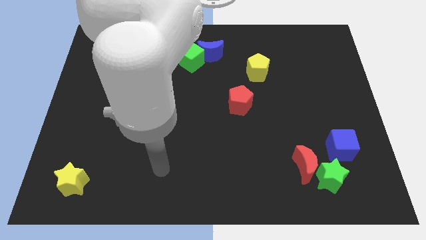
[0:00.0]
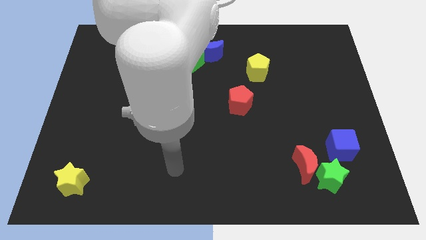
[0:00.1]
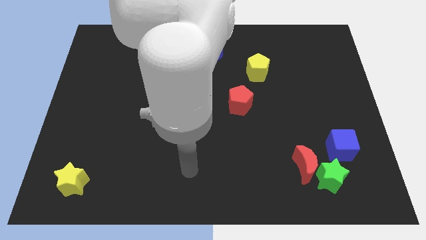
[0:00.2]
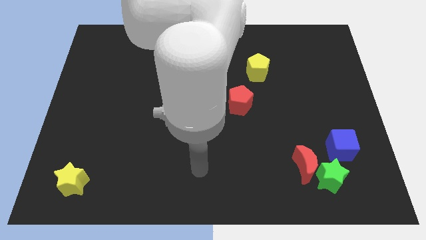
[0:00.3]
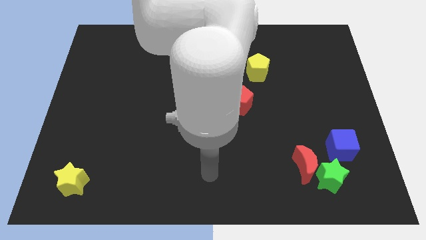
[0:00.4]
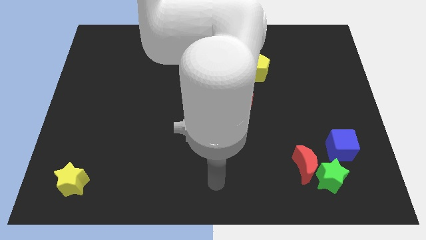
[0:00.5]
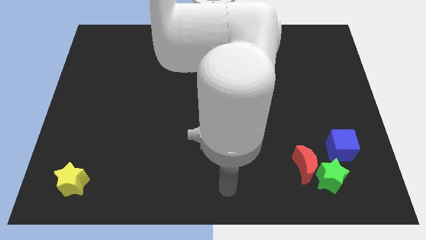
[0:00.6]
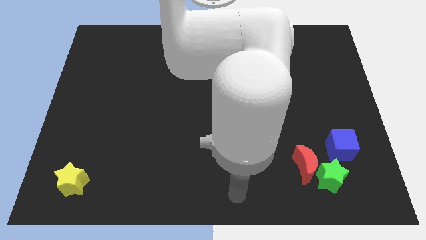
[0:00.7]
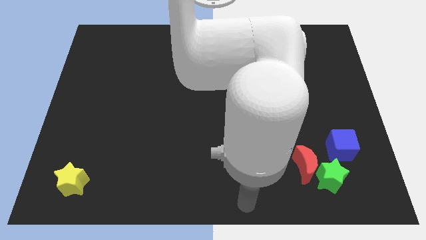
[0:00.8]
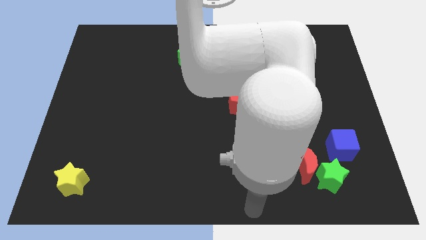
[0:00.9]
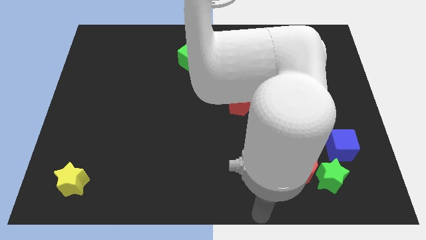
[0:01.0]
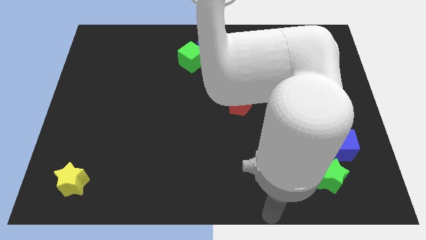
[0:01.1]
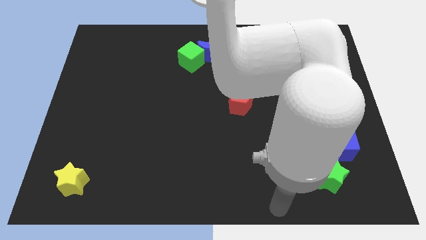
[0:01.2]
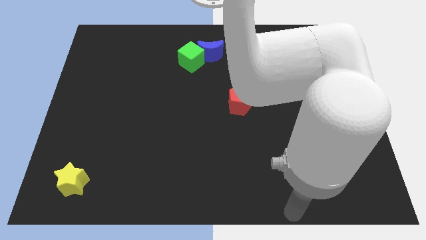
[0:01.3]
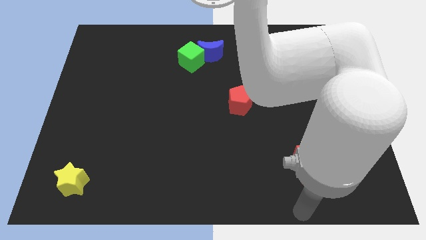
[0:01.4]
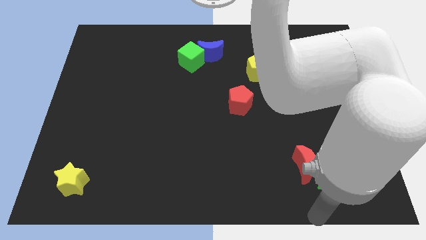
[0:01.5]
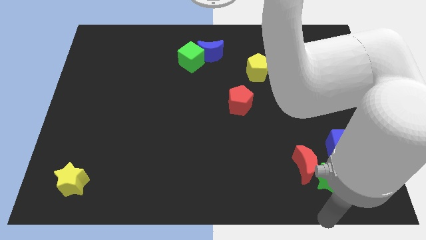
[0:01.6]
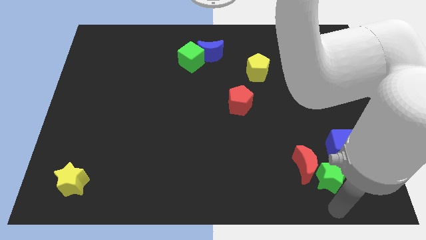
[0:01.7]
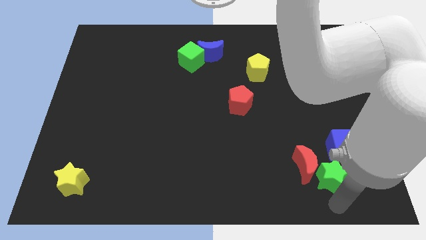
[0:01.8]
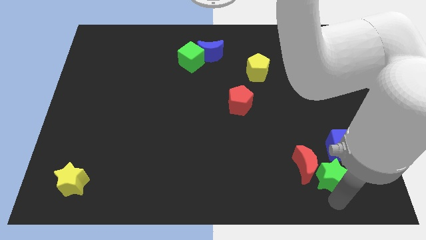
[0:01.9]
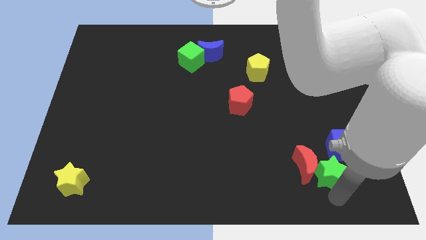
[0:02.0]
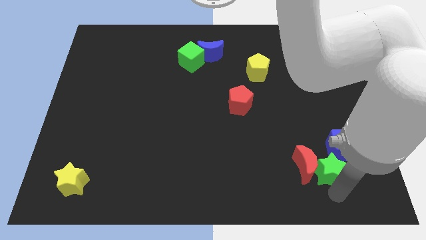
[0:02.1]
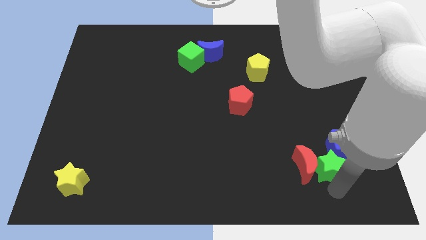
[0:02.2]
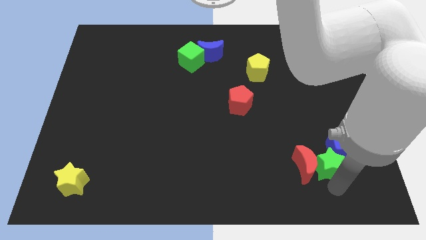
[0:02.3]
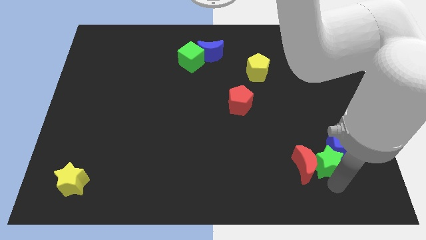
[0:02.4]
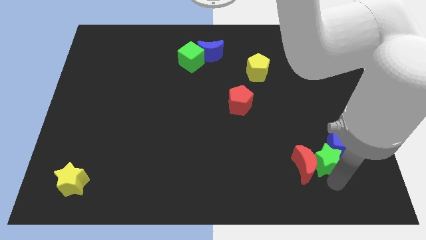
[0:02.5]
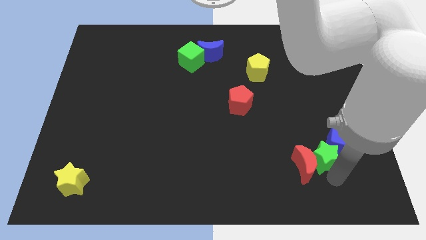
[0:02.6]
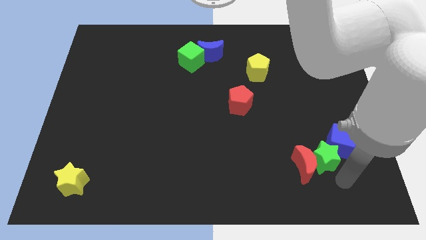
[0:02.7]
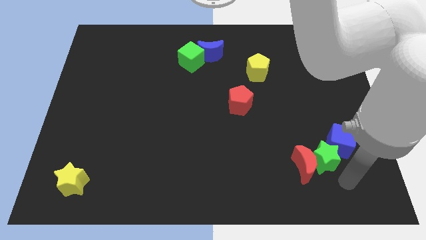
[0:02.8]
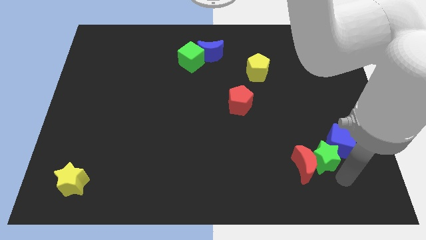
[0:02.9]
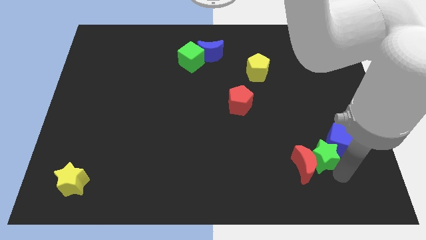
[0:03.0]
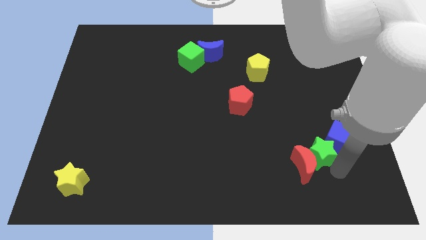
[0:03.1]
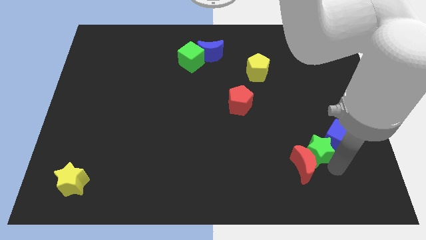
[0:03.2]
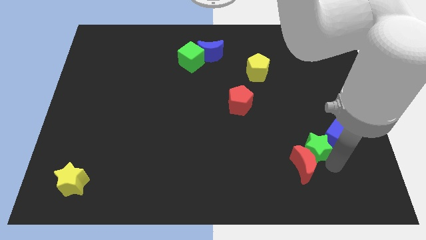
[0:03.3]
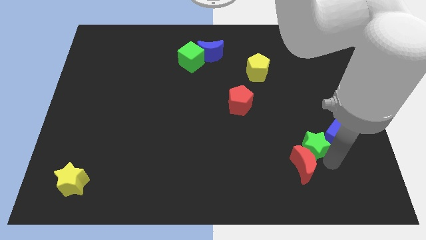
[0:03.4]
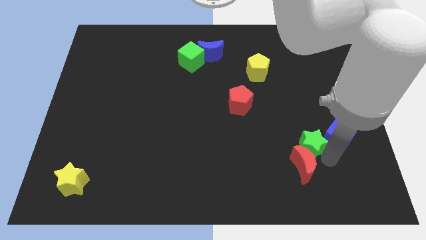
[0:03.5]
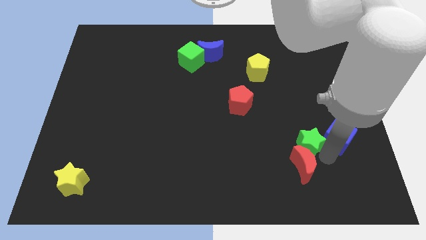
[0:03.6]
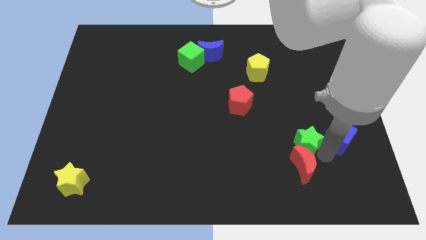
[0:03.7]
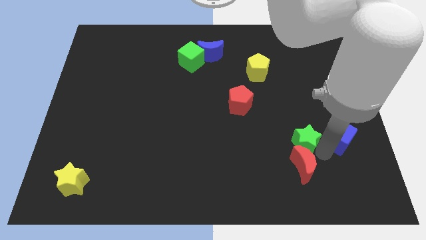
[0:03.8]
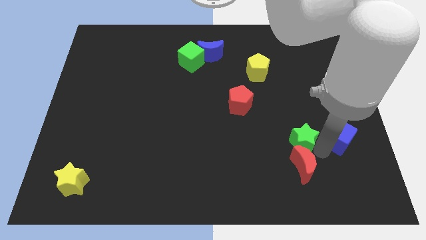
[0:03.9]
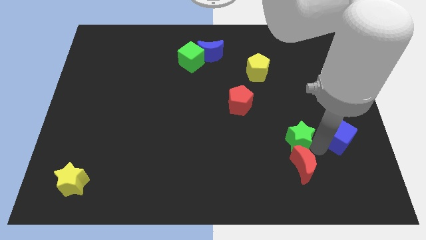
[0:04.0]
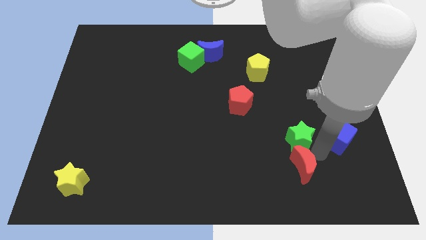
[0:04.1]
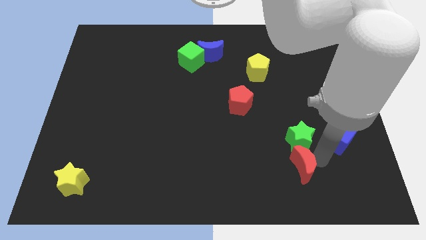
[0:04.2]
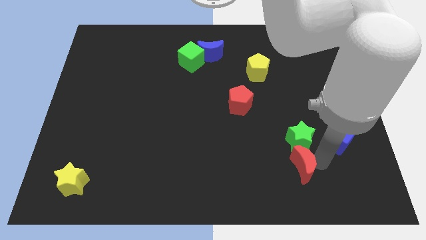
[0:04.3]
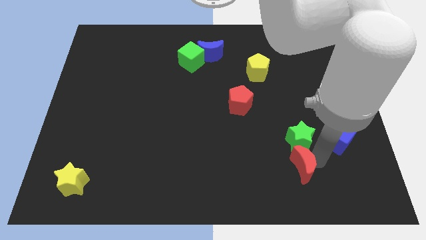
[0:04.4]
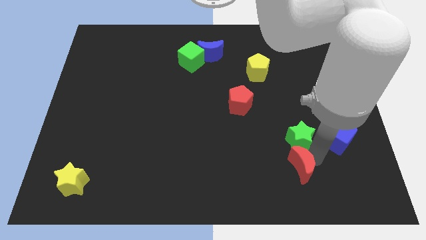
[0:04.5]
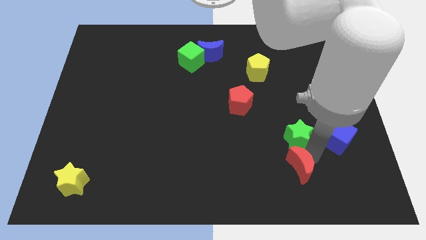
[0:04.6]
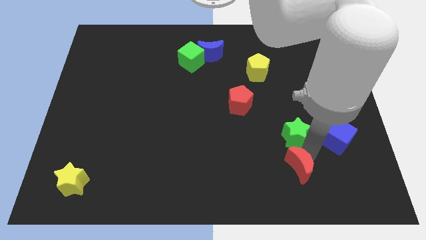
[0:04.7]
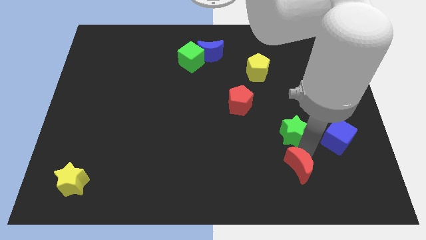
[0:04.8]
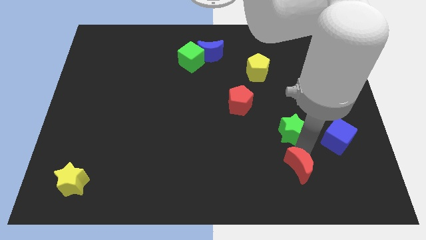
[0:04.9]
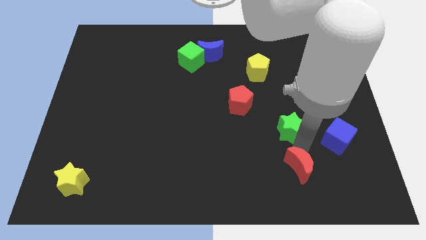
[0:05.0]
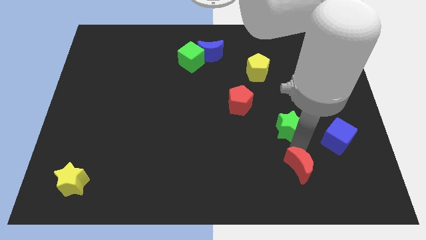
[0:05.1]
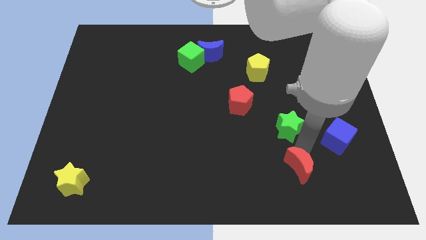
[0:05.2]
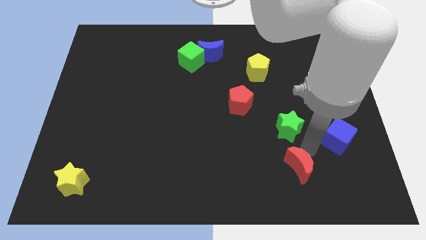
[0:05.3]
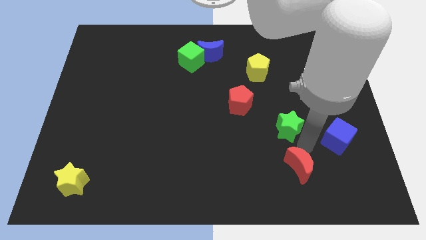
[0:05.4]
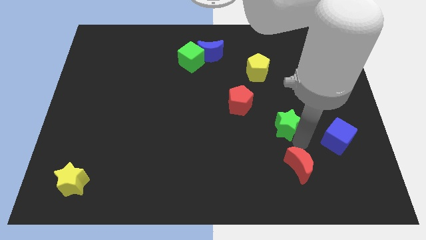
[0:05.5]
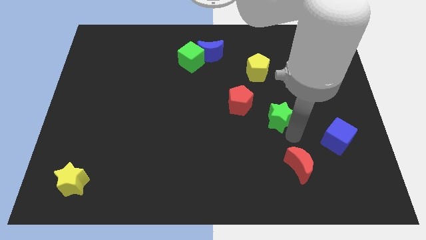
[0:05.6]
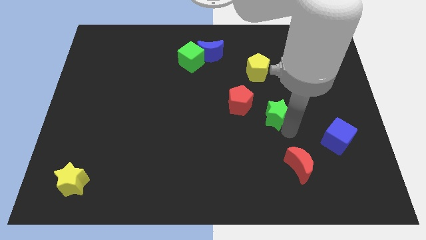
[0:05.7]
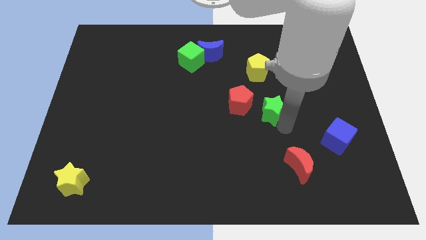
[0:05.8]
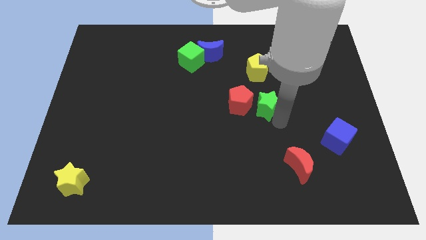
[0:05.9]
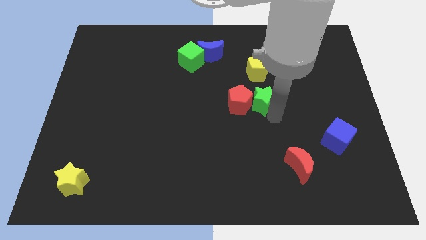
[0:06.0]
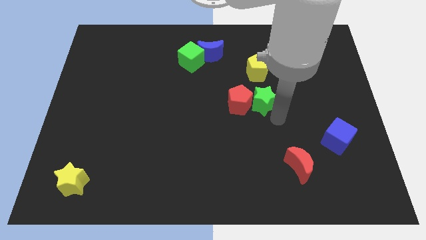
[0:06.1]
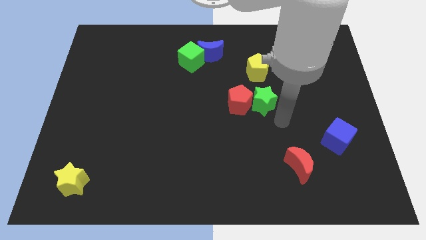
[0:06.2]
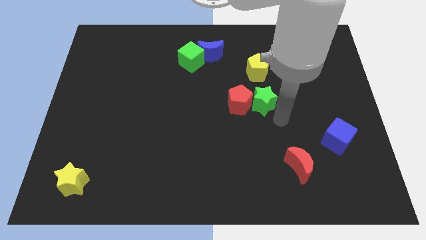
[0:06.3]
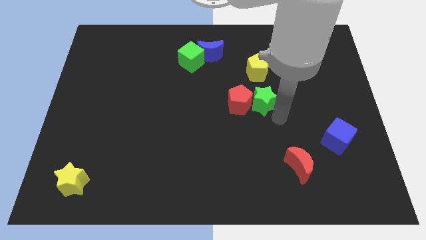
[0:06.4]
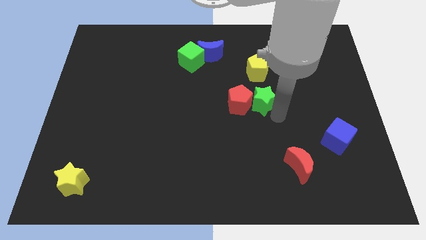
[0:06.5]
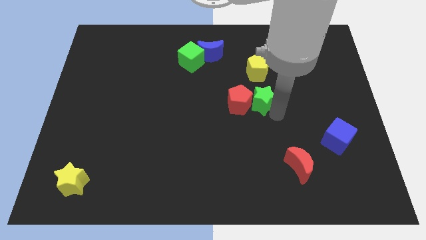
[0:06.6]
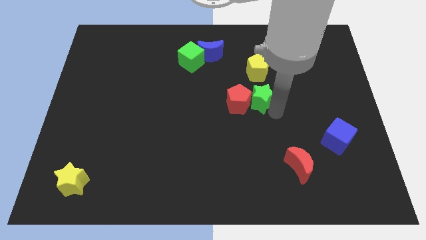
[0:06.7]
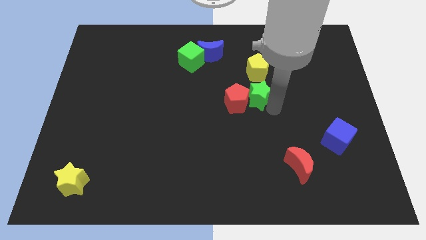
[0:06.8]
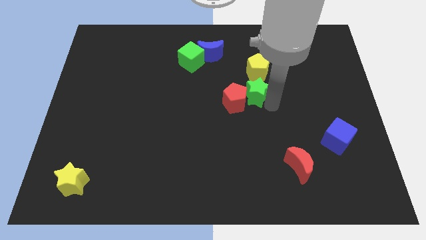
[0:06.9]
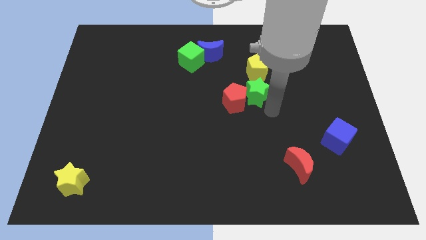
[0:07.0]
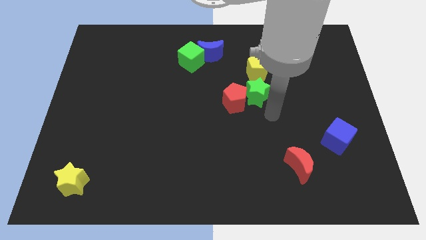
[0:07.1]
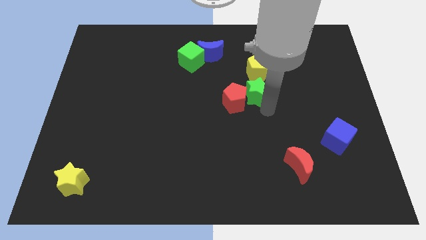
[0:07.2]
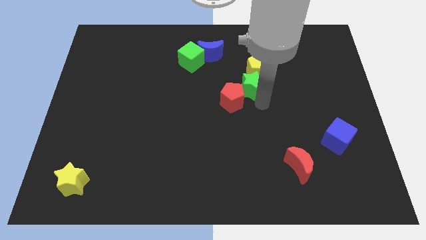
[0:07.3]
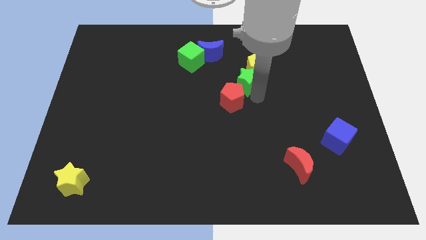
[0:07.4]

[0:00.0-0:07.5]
push the green star to the top side of the red pentagon

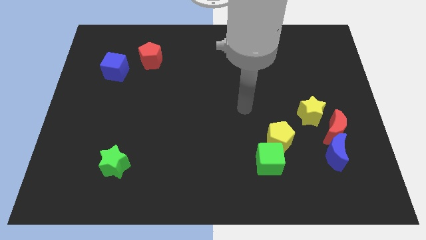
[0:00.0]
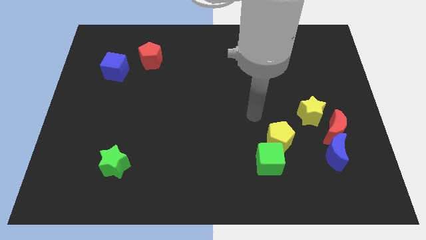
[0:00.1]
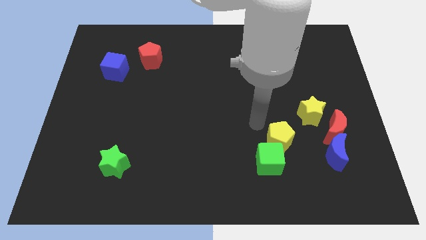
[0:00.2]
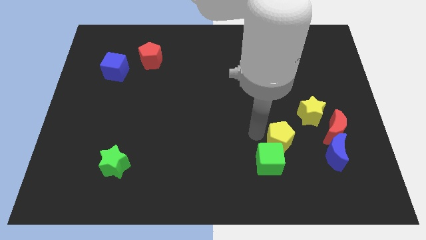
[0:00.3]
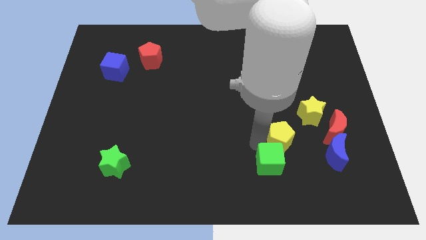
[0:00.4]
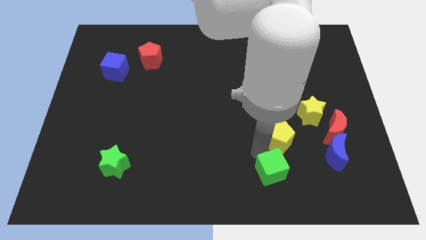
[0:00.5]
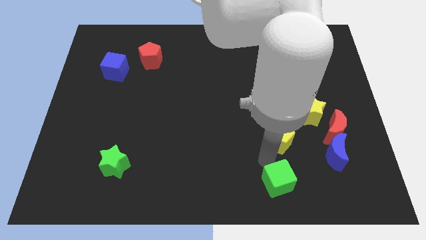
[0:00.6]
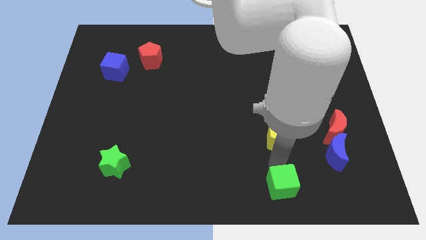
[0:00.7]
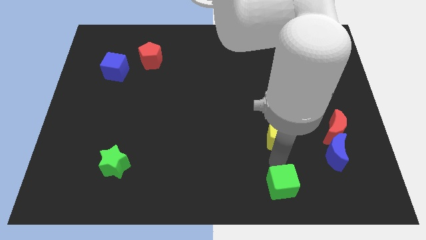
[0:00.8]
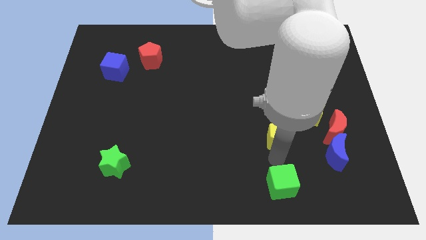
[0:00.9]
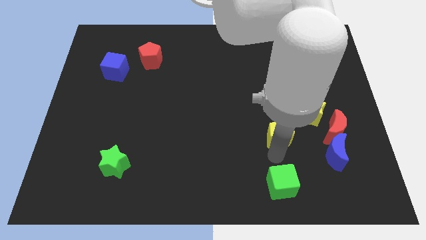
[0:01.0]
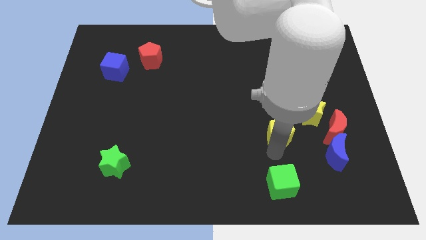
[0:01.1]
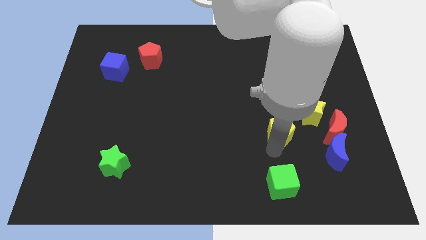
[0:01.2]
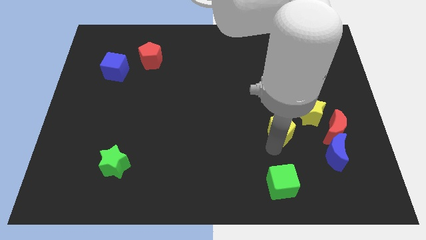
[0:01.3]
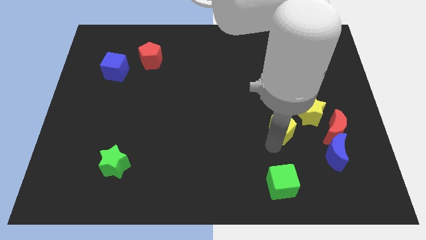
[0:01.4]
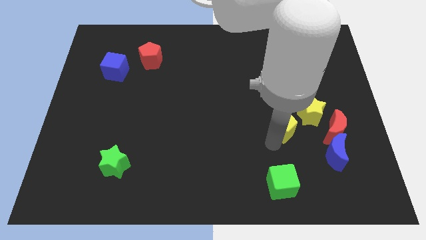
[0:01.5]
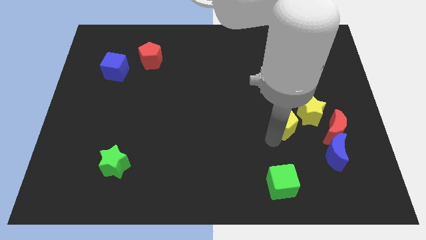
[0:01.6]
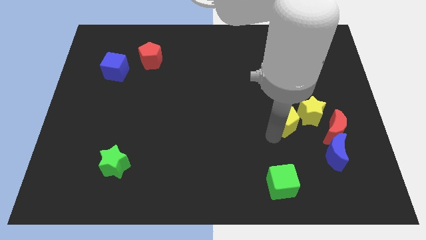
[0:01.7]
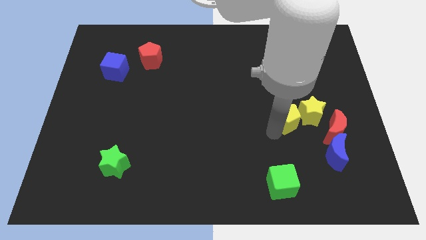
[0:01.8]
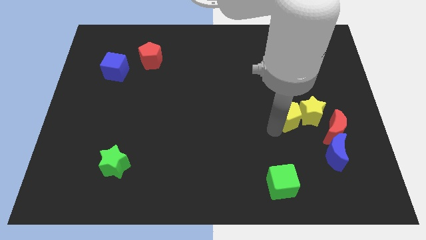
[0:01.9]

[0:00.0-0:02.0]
put the yellow pentagon diagonally up and to the left of the yellow star
